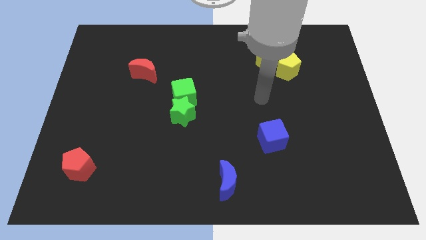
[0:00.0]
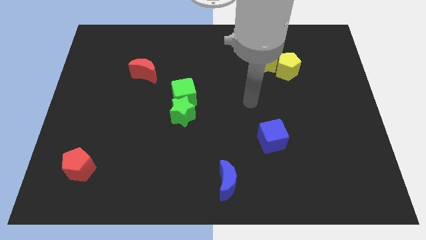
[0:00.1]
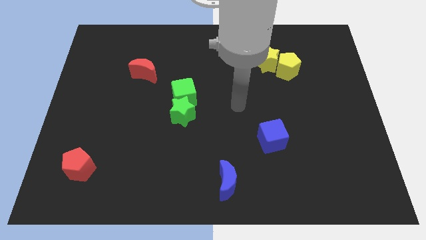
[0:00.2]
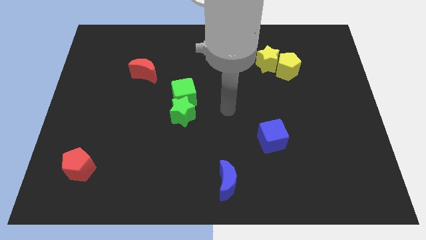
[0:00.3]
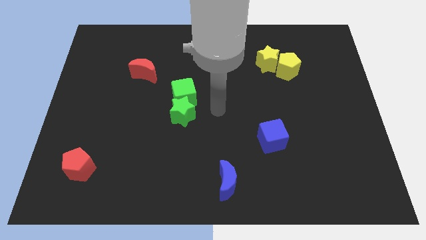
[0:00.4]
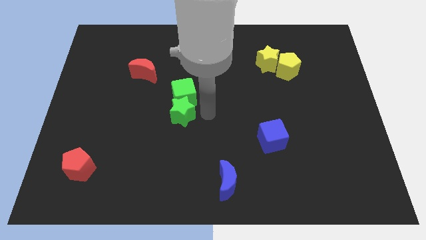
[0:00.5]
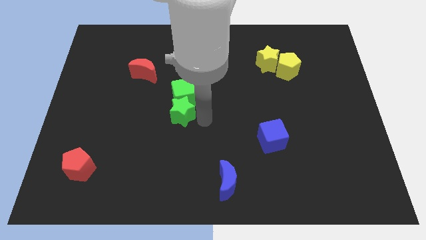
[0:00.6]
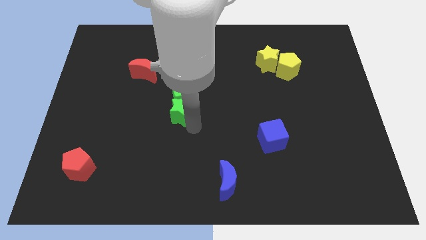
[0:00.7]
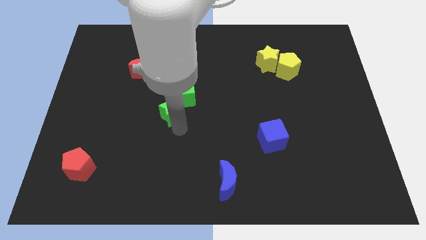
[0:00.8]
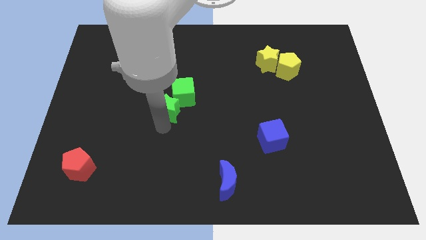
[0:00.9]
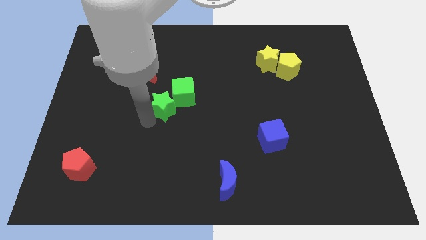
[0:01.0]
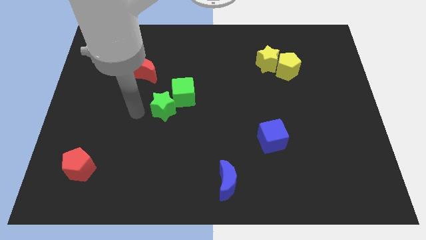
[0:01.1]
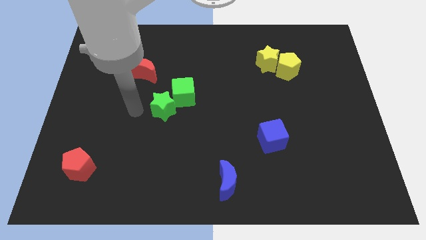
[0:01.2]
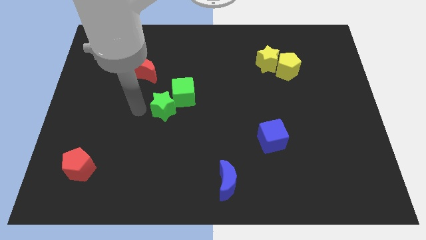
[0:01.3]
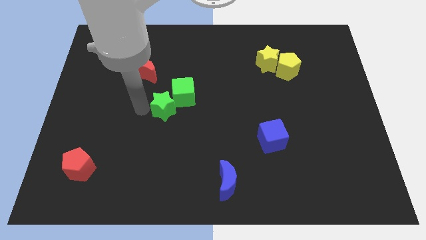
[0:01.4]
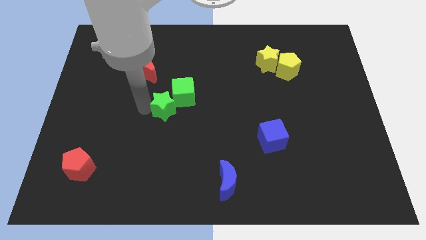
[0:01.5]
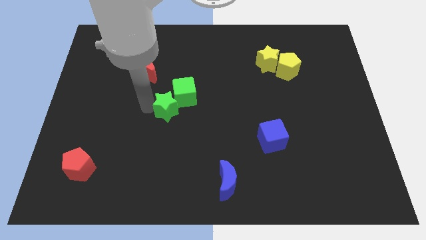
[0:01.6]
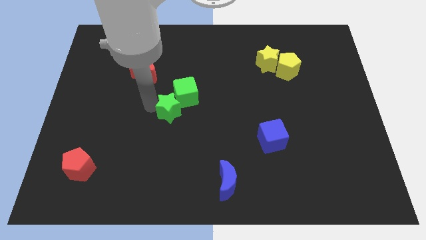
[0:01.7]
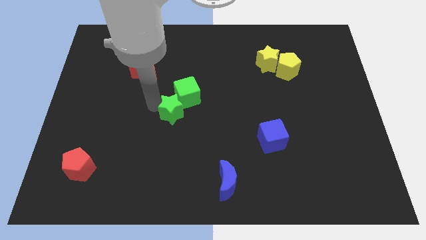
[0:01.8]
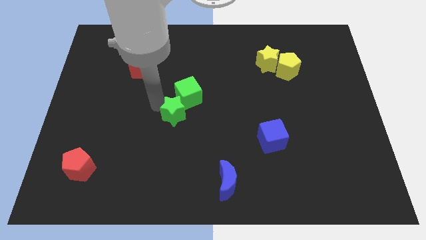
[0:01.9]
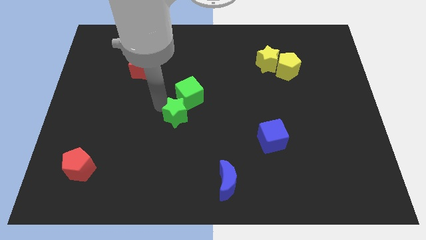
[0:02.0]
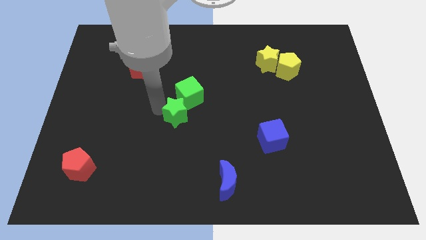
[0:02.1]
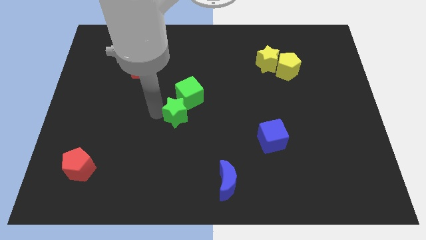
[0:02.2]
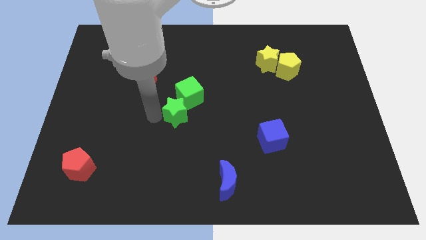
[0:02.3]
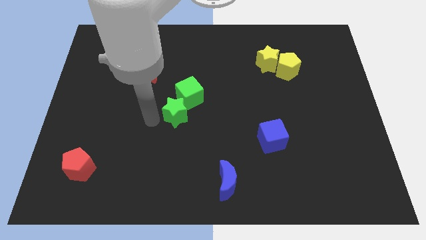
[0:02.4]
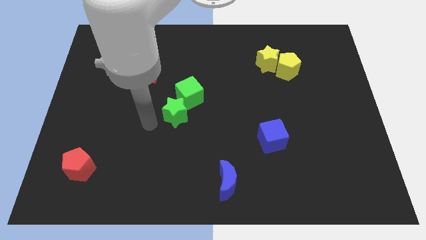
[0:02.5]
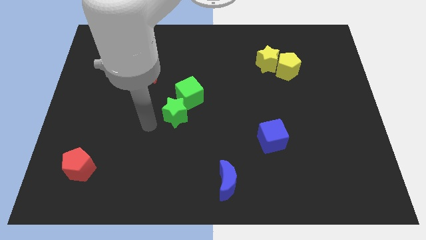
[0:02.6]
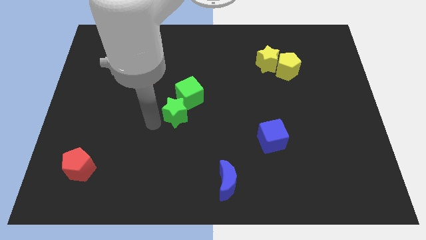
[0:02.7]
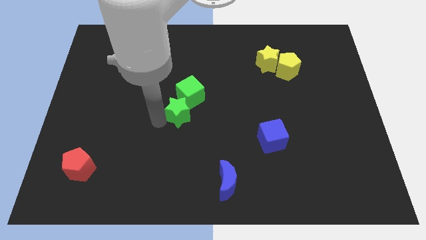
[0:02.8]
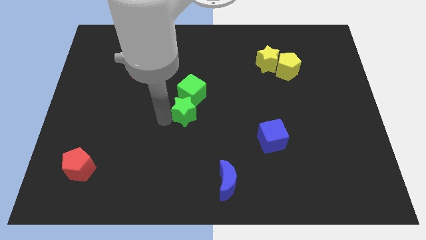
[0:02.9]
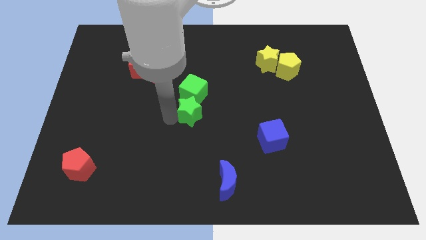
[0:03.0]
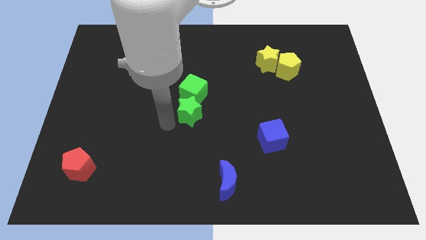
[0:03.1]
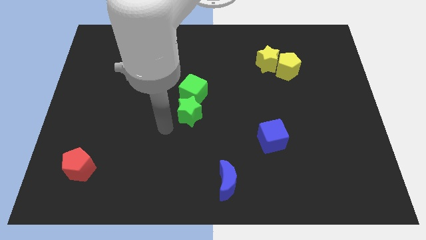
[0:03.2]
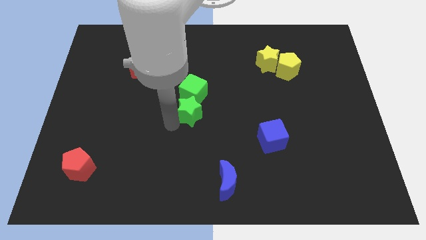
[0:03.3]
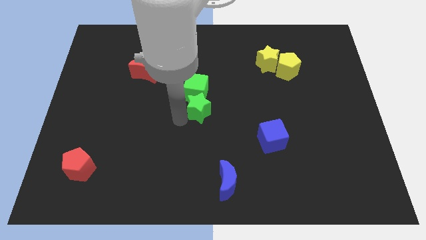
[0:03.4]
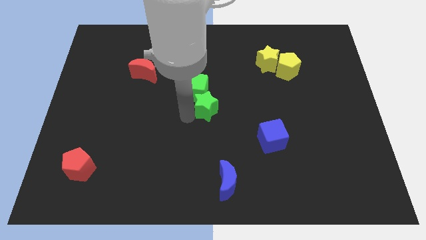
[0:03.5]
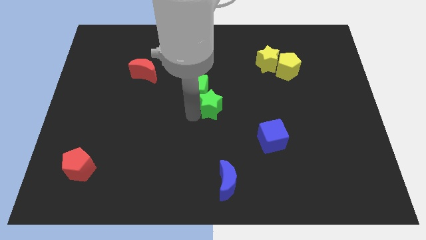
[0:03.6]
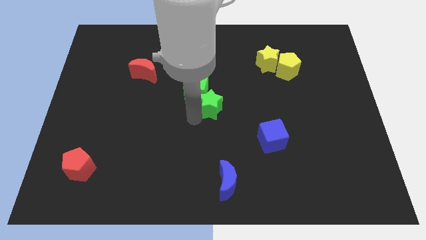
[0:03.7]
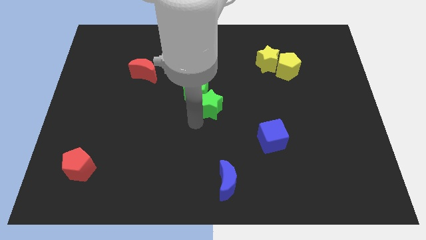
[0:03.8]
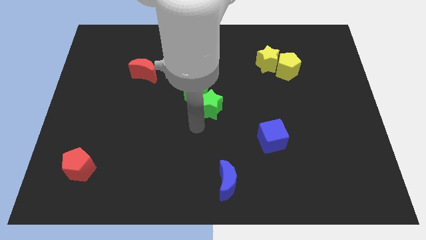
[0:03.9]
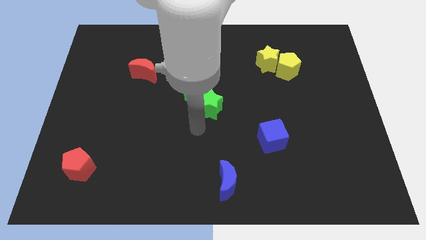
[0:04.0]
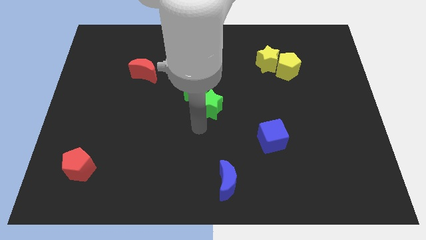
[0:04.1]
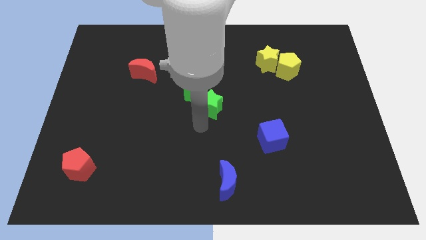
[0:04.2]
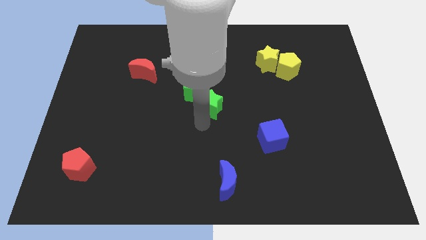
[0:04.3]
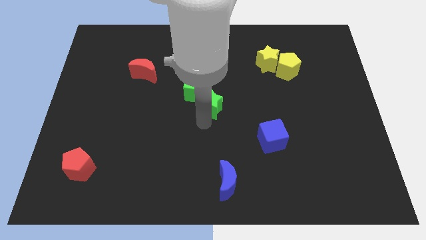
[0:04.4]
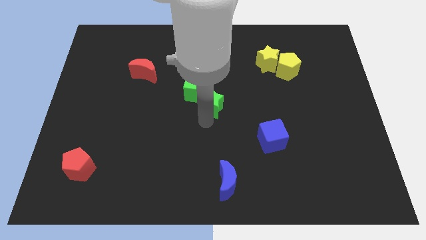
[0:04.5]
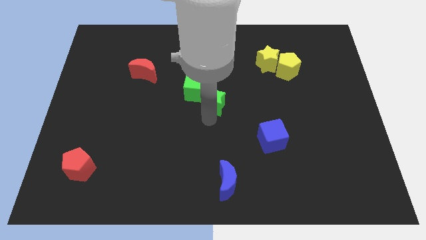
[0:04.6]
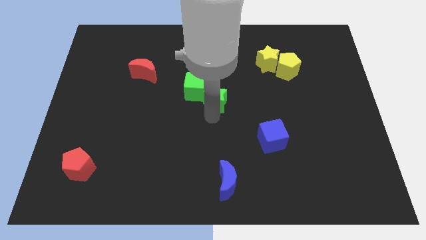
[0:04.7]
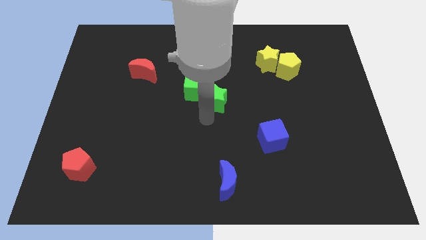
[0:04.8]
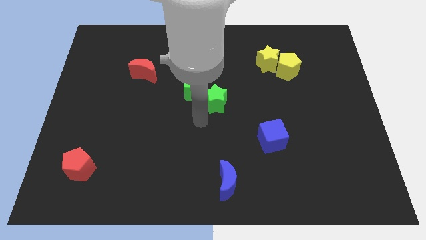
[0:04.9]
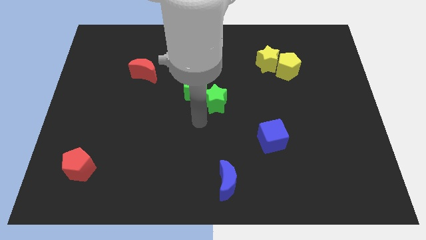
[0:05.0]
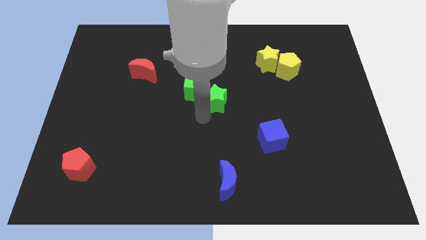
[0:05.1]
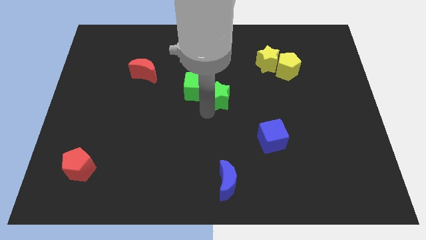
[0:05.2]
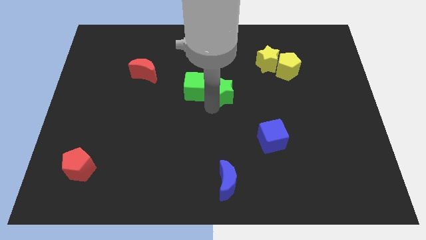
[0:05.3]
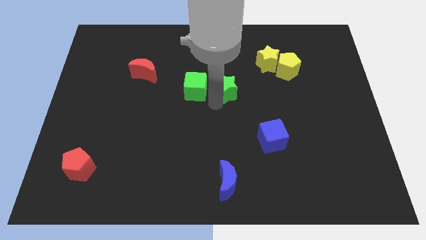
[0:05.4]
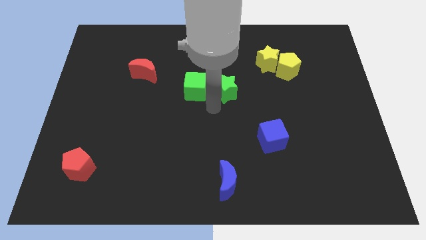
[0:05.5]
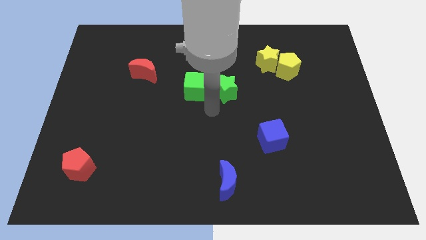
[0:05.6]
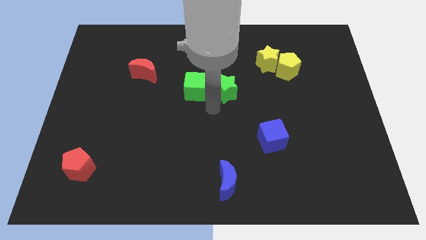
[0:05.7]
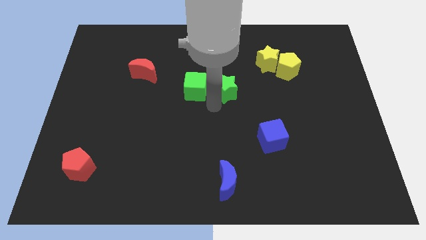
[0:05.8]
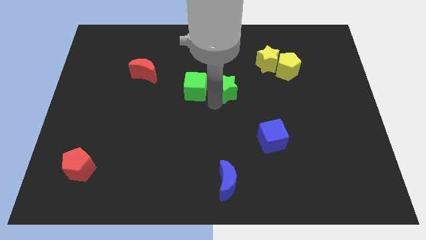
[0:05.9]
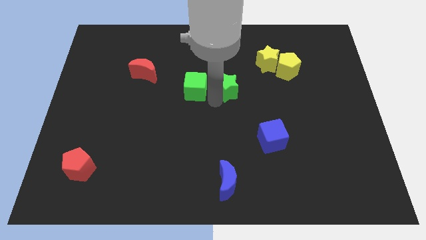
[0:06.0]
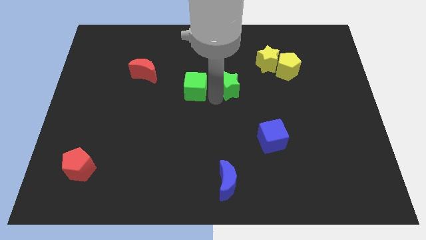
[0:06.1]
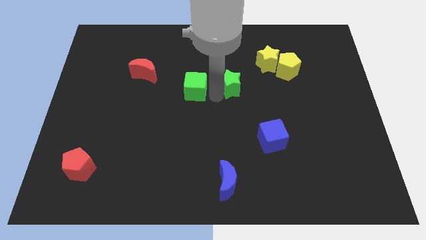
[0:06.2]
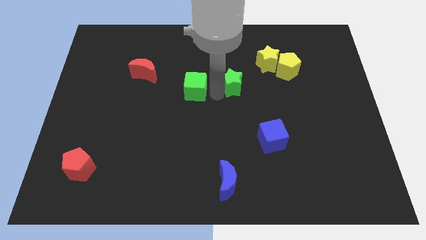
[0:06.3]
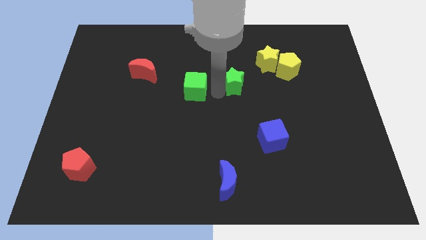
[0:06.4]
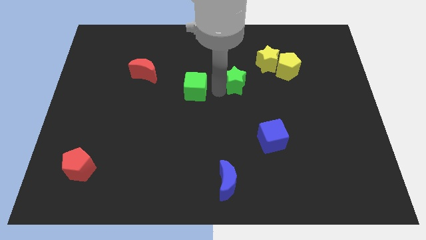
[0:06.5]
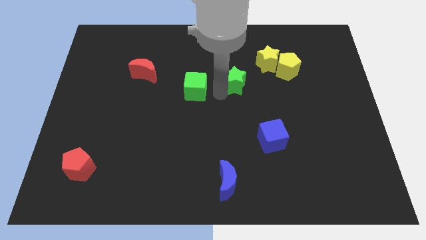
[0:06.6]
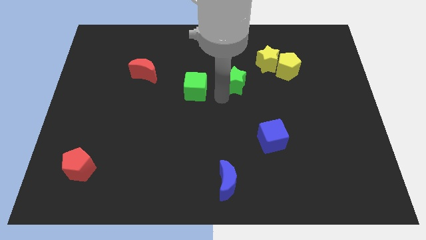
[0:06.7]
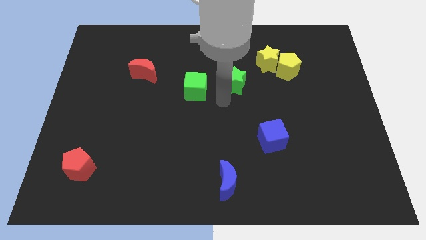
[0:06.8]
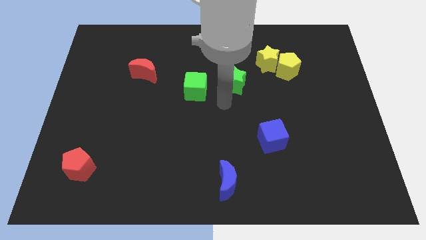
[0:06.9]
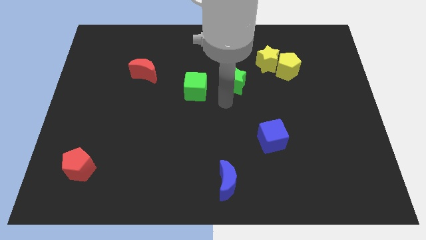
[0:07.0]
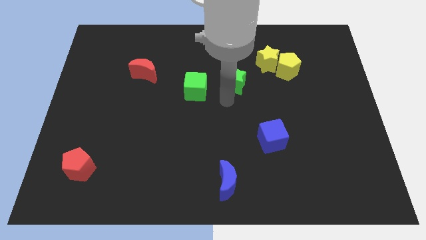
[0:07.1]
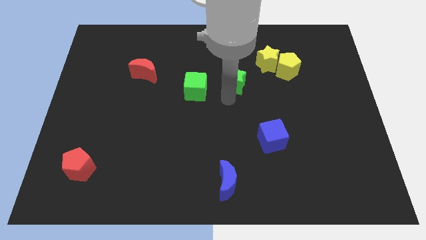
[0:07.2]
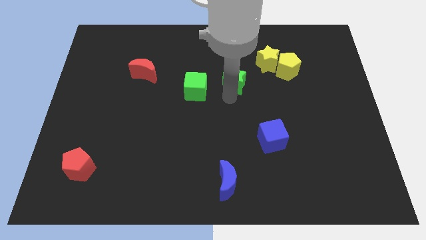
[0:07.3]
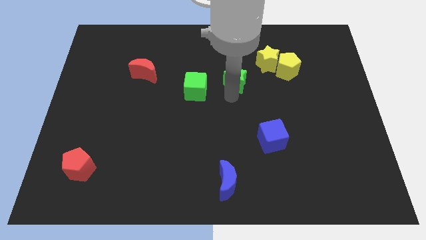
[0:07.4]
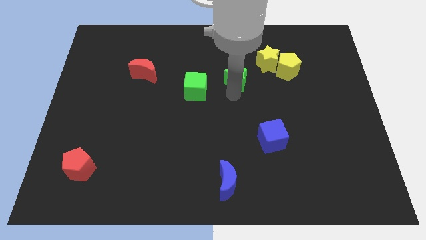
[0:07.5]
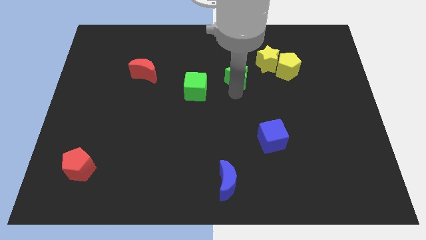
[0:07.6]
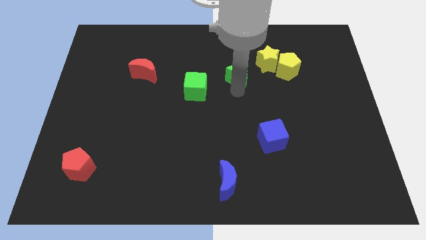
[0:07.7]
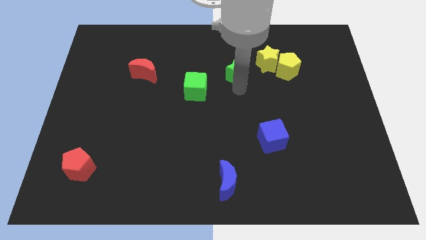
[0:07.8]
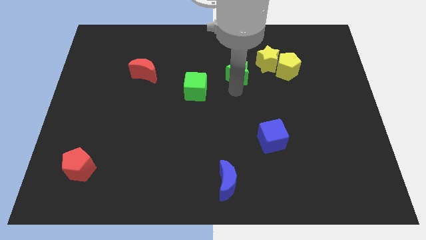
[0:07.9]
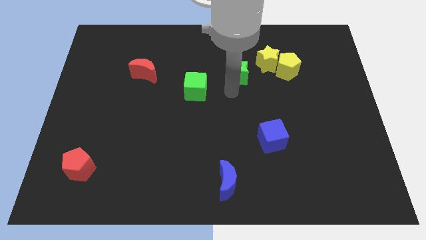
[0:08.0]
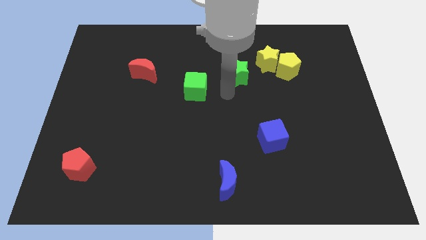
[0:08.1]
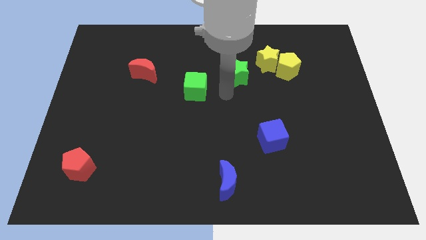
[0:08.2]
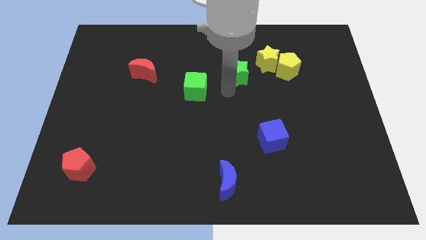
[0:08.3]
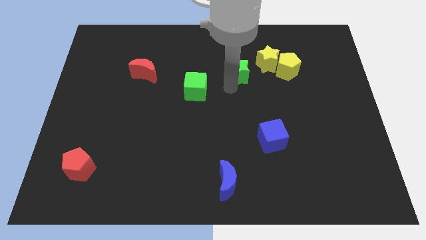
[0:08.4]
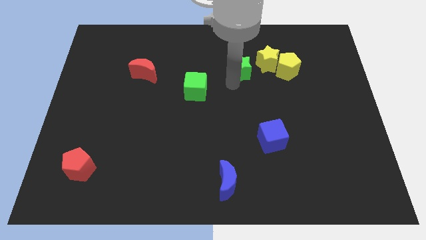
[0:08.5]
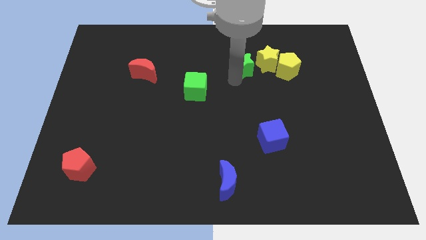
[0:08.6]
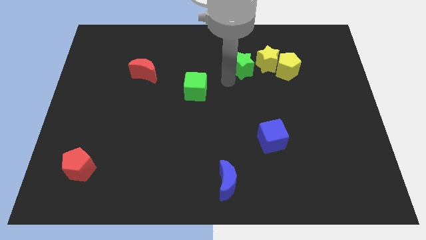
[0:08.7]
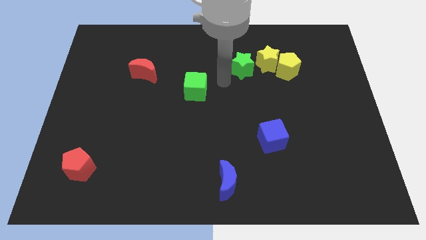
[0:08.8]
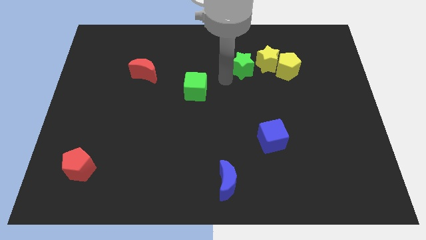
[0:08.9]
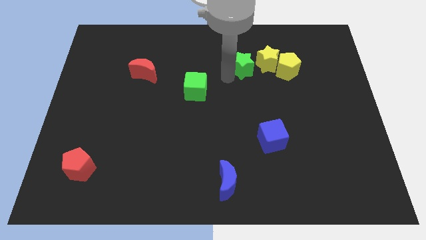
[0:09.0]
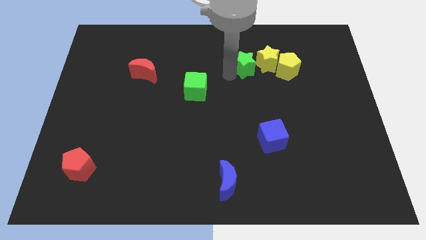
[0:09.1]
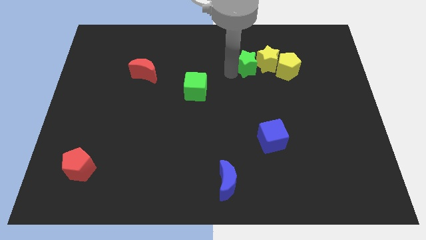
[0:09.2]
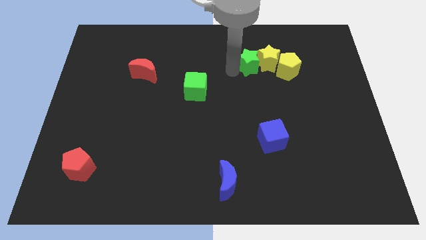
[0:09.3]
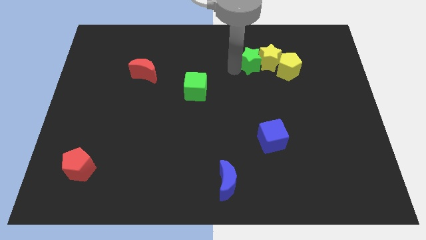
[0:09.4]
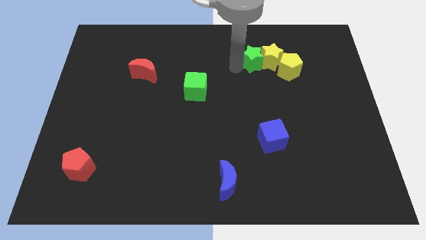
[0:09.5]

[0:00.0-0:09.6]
move the green star diagonally up and to the left of the yellow pentagon
